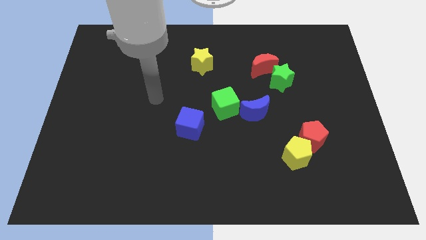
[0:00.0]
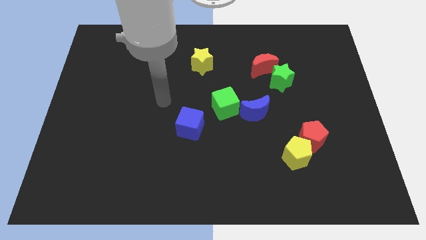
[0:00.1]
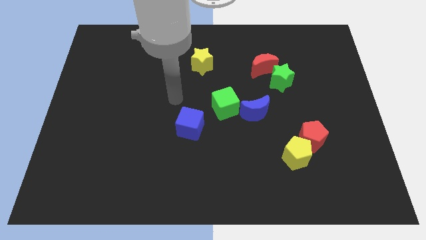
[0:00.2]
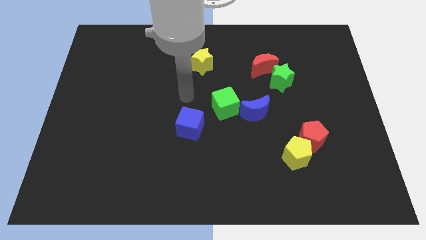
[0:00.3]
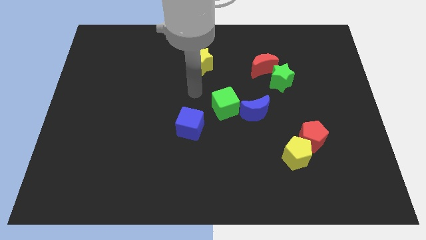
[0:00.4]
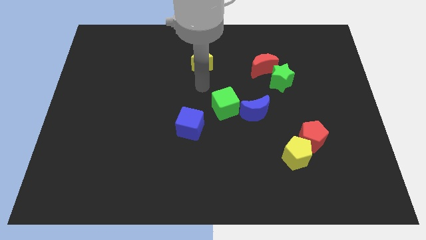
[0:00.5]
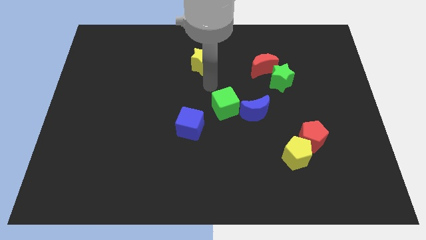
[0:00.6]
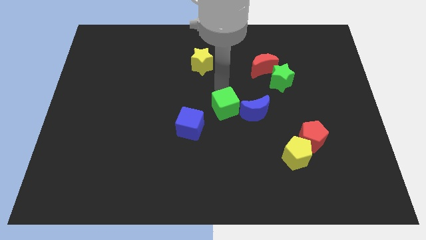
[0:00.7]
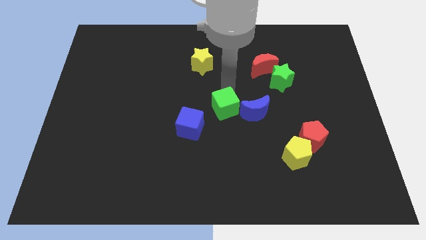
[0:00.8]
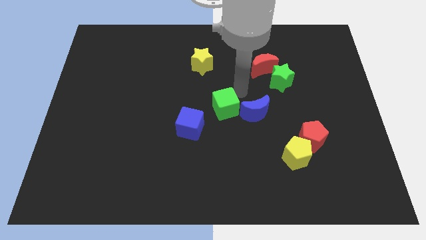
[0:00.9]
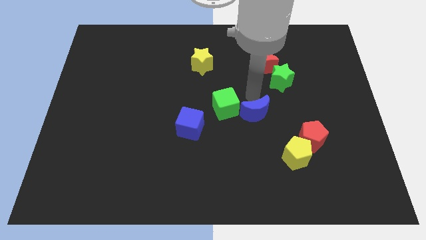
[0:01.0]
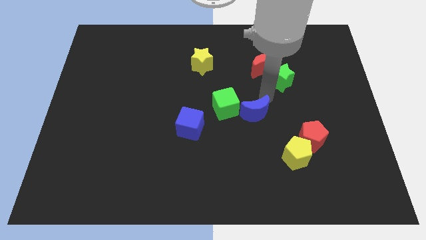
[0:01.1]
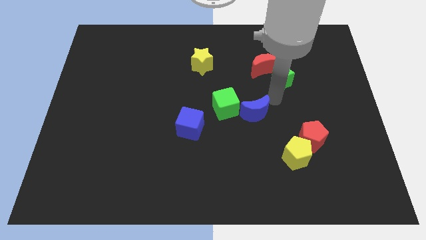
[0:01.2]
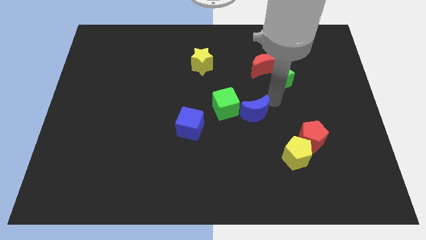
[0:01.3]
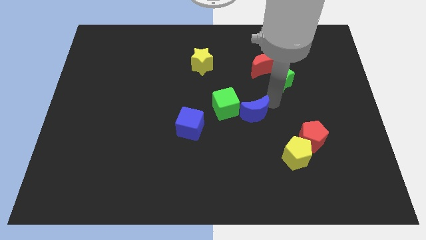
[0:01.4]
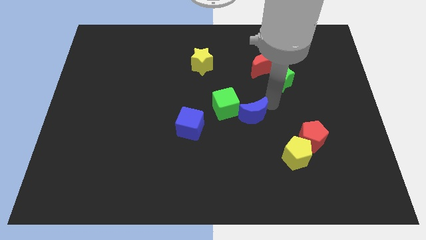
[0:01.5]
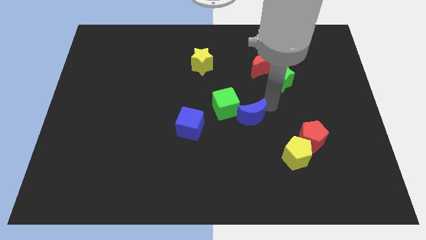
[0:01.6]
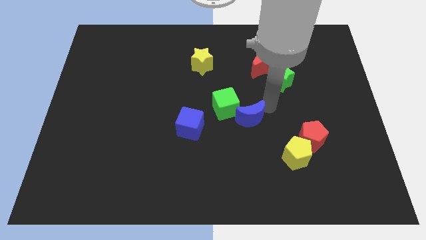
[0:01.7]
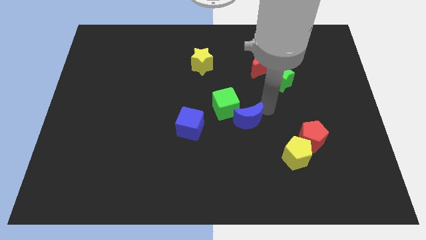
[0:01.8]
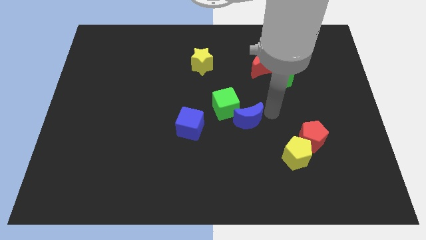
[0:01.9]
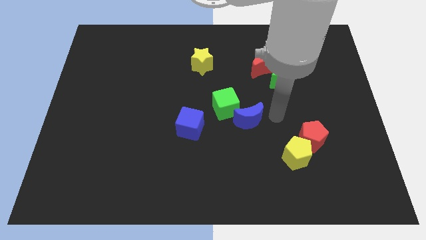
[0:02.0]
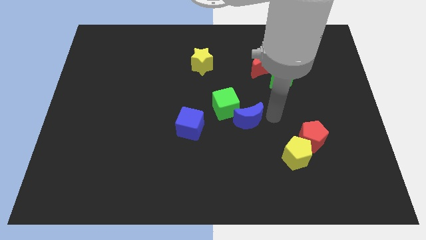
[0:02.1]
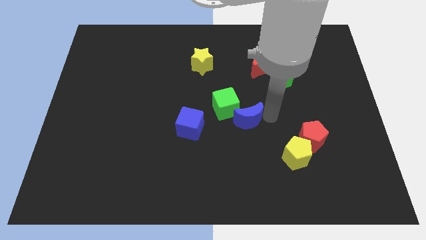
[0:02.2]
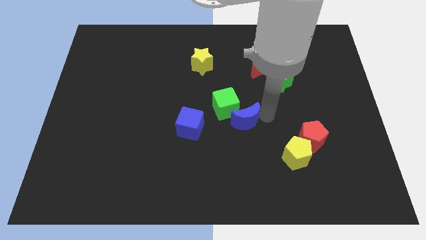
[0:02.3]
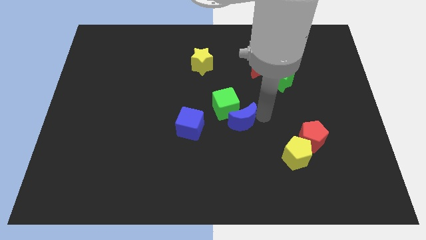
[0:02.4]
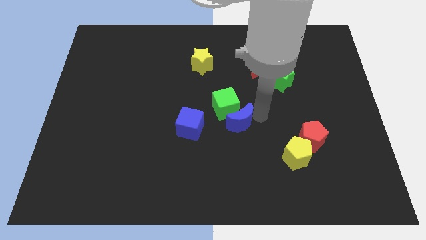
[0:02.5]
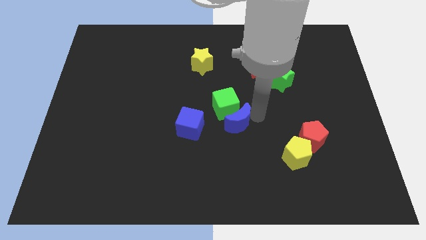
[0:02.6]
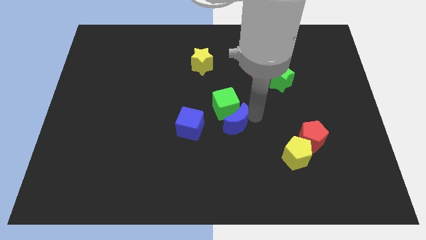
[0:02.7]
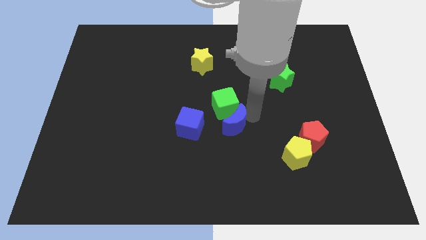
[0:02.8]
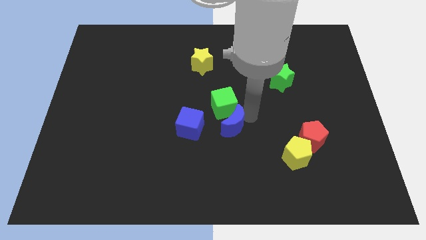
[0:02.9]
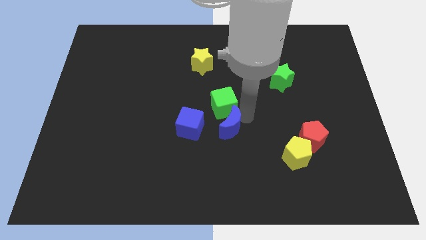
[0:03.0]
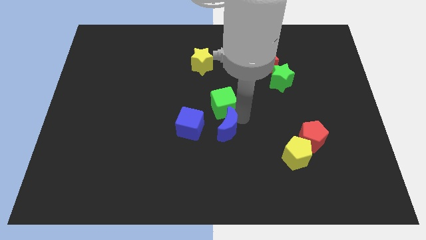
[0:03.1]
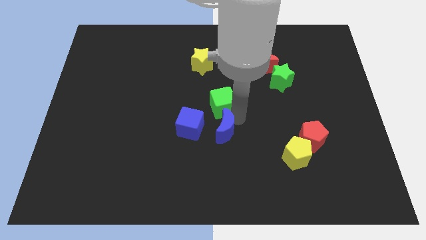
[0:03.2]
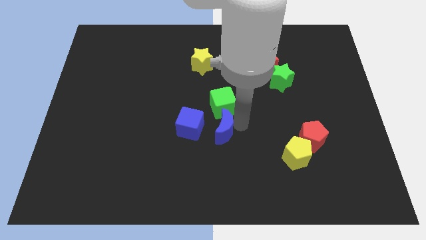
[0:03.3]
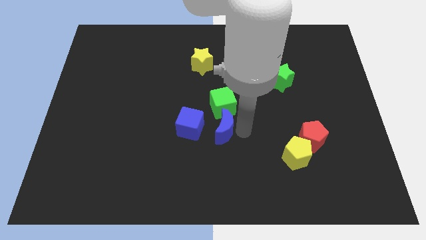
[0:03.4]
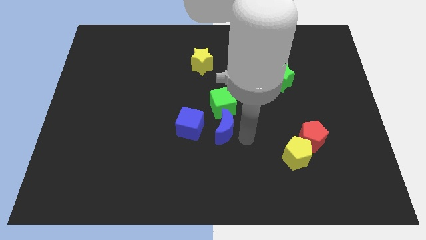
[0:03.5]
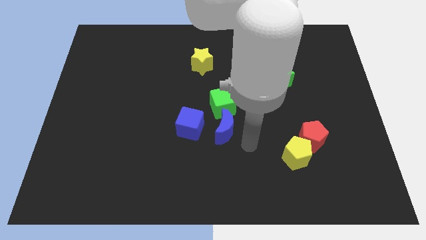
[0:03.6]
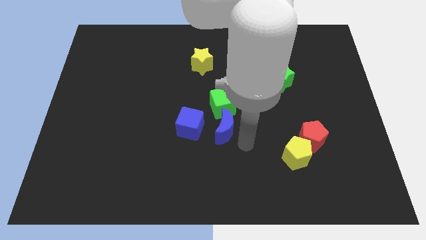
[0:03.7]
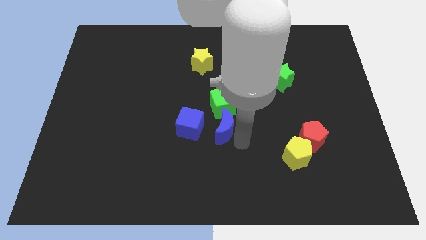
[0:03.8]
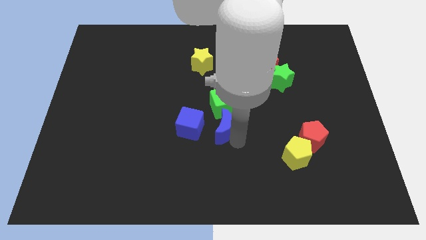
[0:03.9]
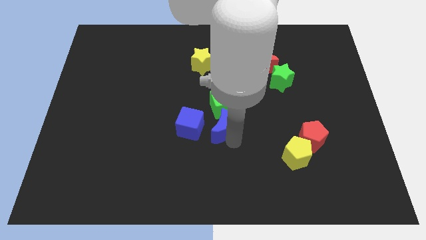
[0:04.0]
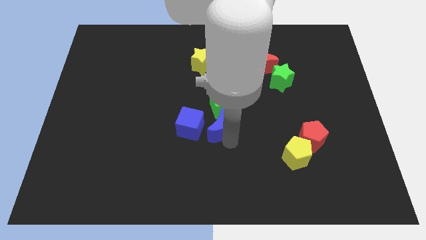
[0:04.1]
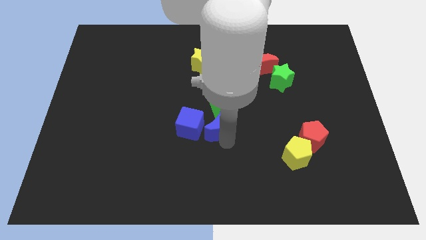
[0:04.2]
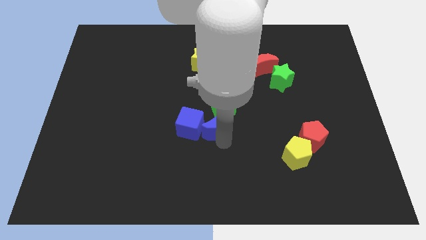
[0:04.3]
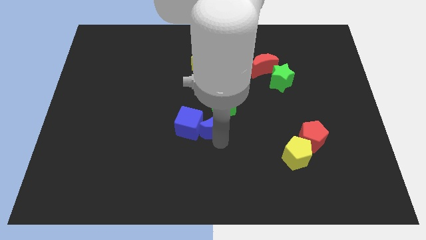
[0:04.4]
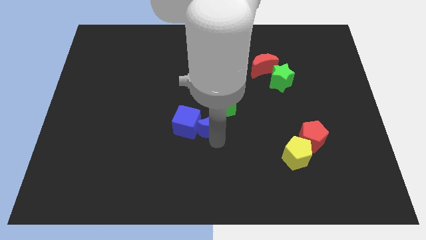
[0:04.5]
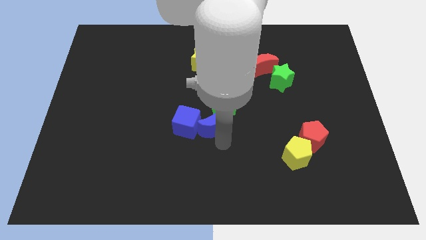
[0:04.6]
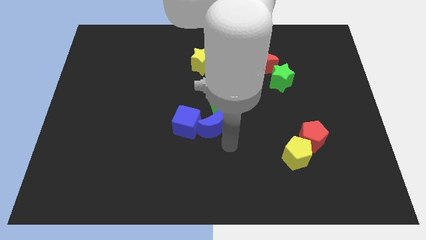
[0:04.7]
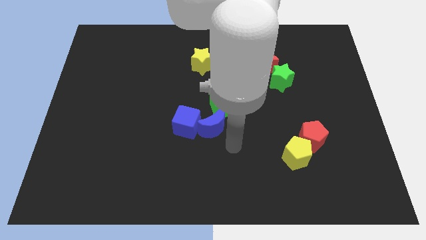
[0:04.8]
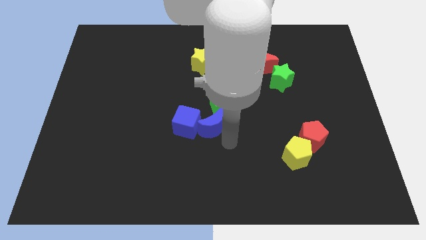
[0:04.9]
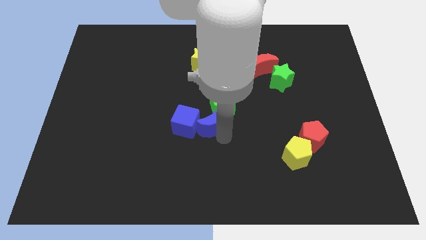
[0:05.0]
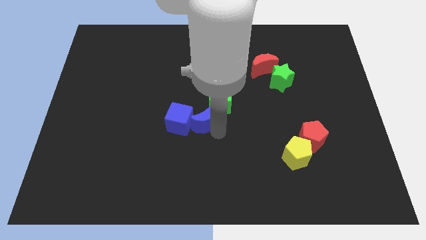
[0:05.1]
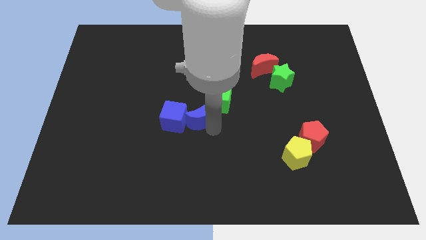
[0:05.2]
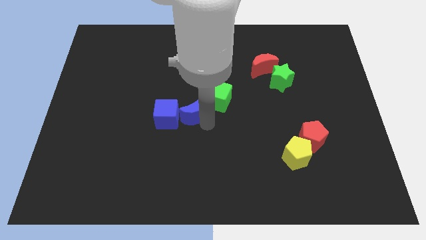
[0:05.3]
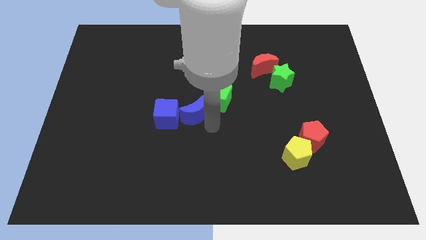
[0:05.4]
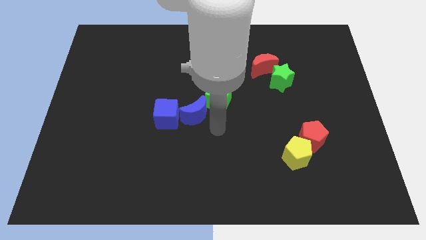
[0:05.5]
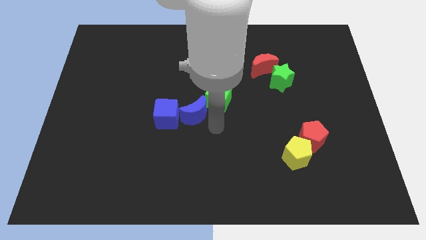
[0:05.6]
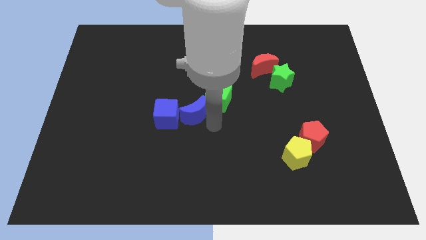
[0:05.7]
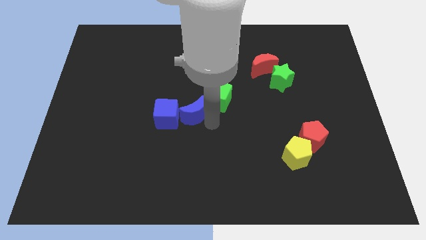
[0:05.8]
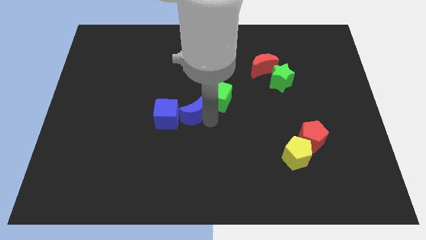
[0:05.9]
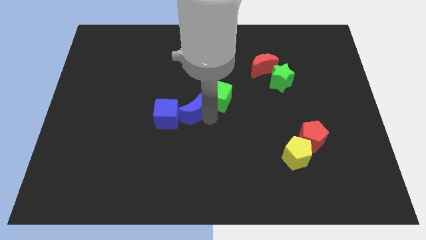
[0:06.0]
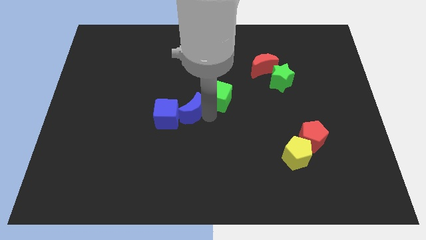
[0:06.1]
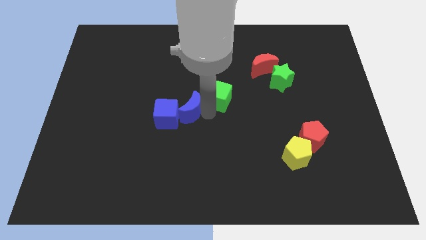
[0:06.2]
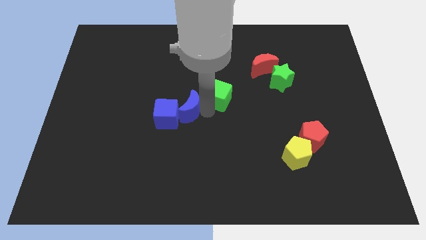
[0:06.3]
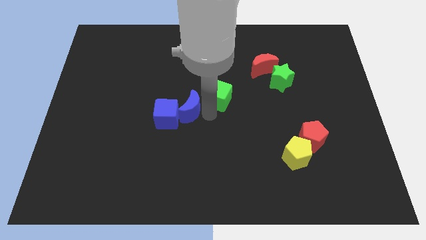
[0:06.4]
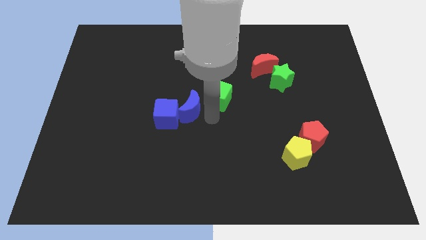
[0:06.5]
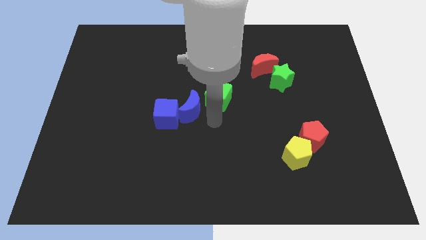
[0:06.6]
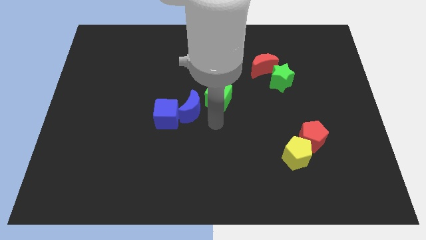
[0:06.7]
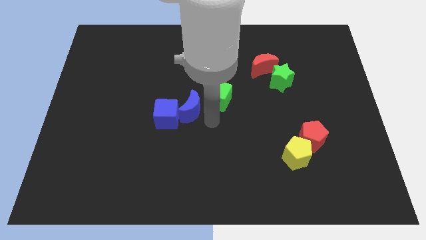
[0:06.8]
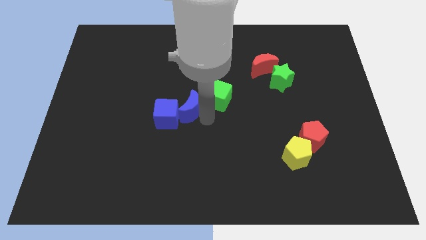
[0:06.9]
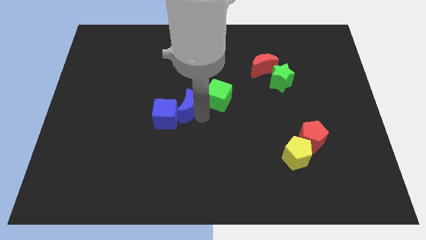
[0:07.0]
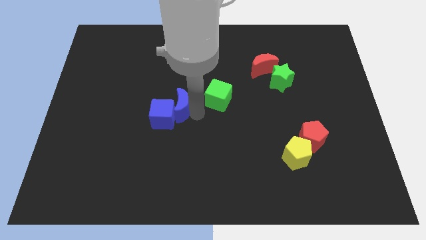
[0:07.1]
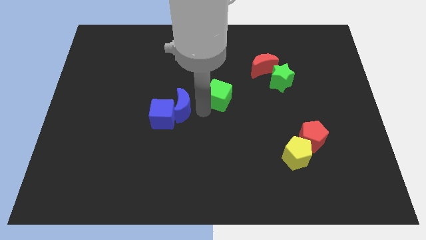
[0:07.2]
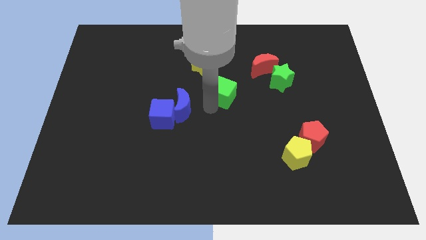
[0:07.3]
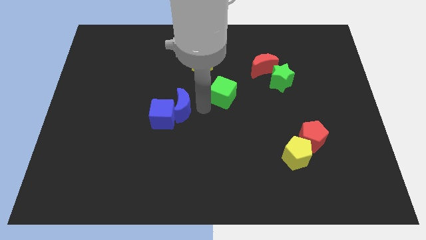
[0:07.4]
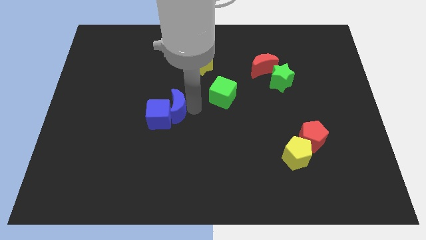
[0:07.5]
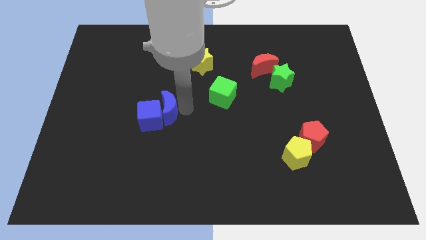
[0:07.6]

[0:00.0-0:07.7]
slide the blue moon to the left

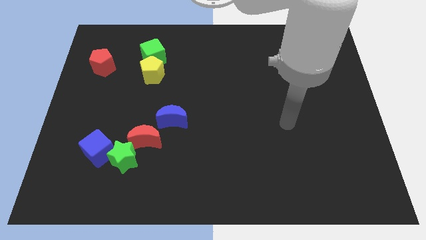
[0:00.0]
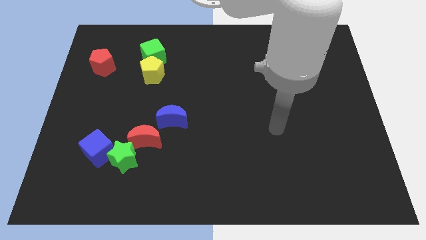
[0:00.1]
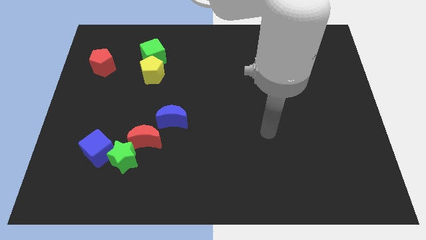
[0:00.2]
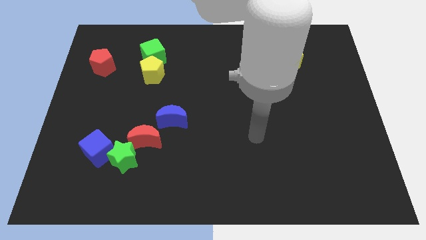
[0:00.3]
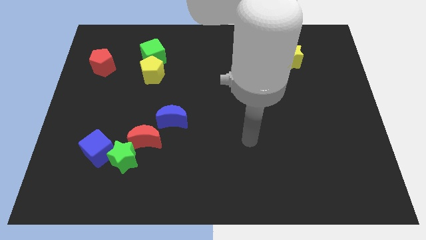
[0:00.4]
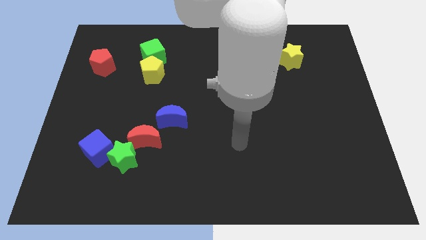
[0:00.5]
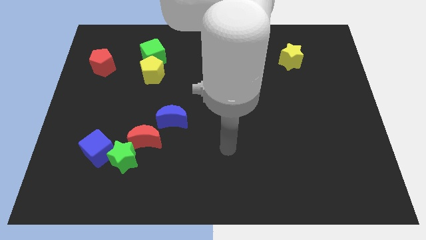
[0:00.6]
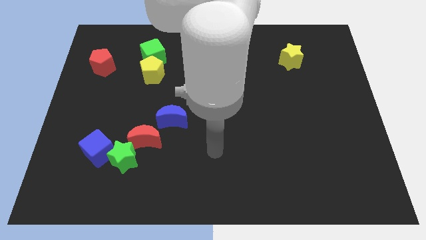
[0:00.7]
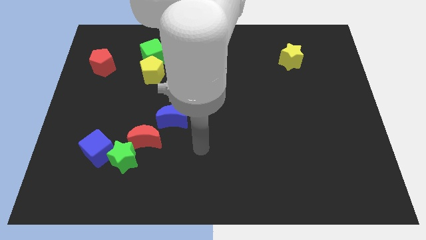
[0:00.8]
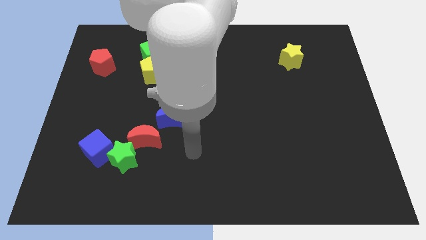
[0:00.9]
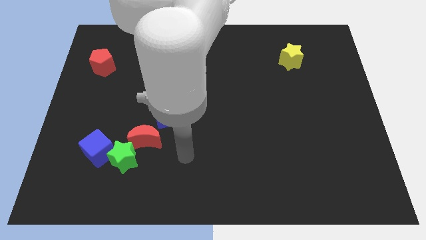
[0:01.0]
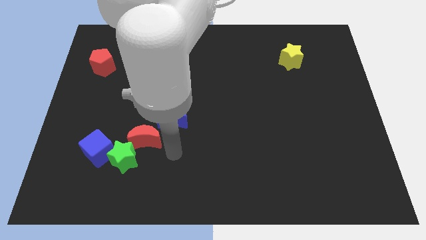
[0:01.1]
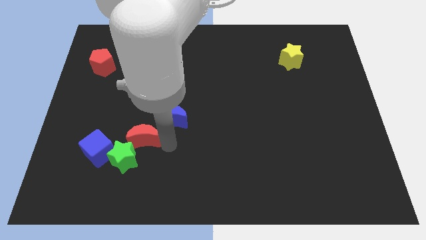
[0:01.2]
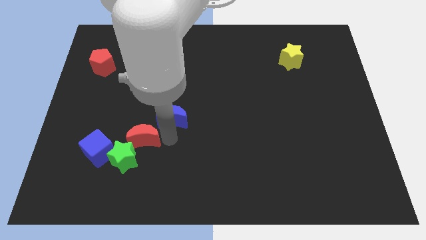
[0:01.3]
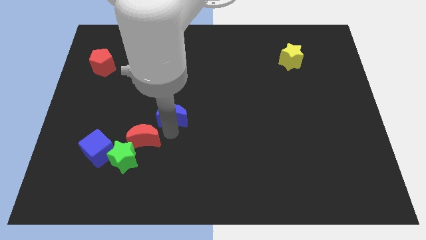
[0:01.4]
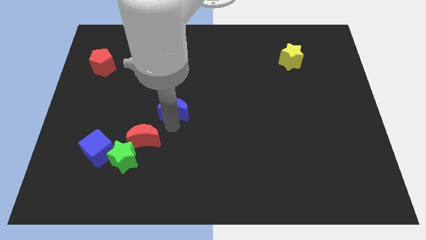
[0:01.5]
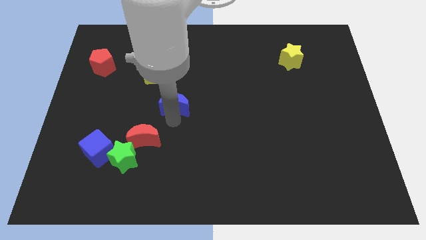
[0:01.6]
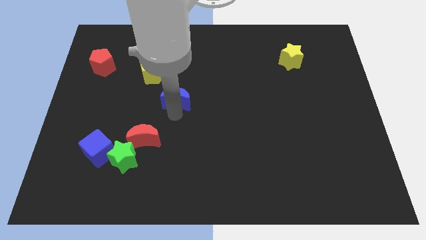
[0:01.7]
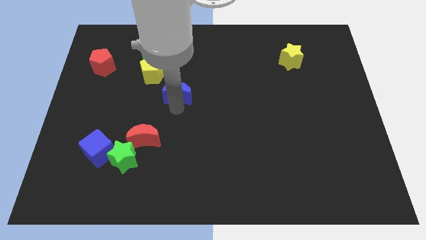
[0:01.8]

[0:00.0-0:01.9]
slightly move the blue moon up
